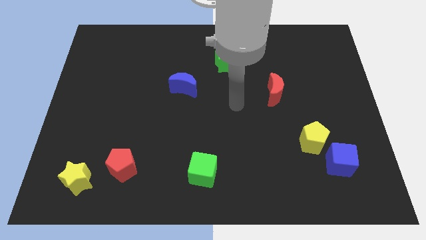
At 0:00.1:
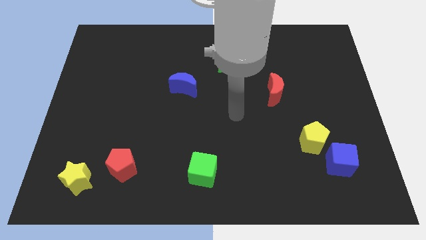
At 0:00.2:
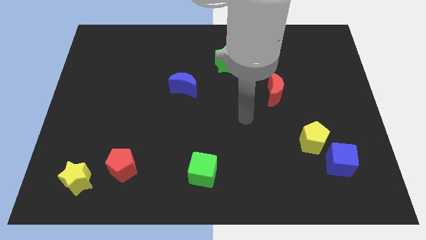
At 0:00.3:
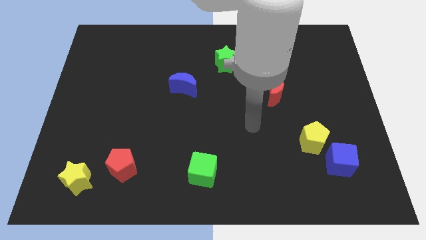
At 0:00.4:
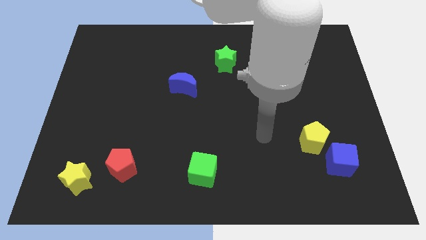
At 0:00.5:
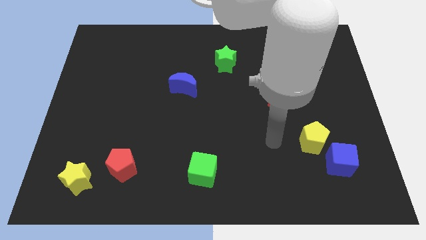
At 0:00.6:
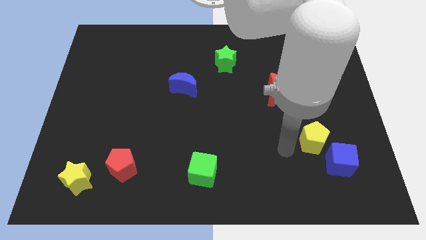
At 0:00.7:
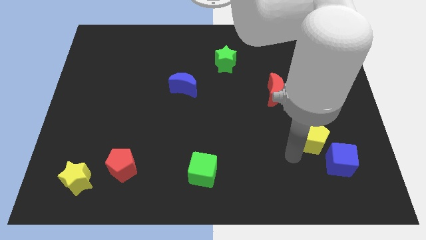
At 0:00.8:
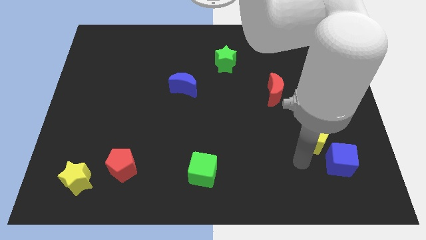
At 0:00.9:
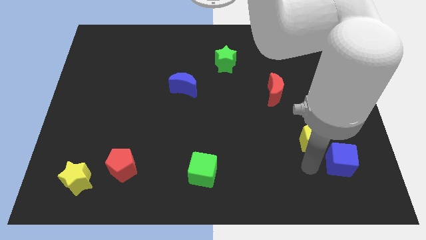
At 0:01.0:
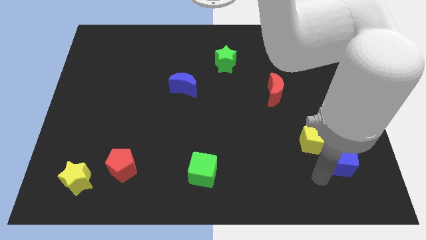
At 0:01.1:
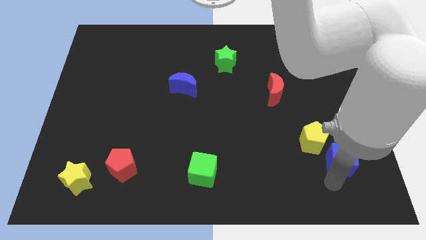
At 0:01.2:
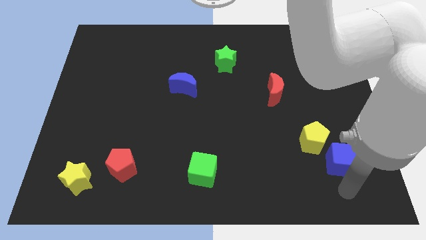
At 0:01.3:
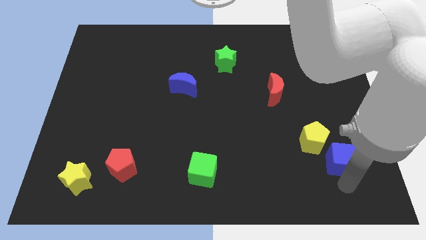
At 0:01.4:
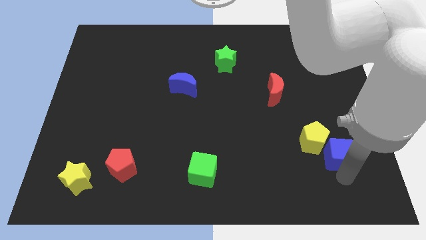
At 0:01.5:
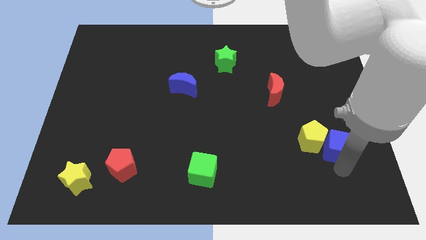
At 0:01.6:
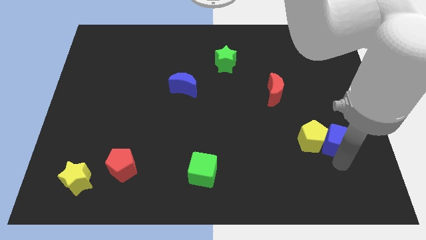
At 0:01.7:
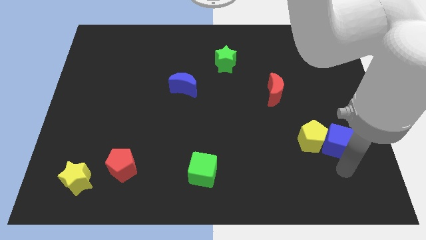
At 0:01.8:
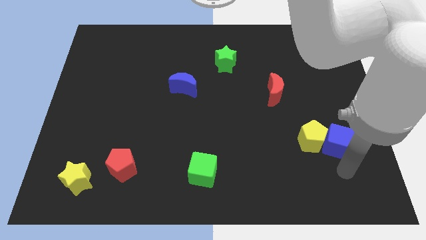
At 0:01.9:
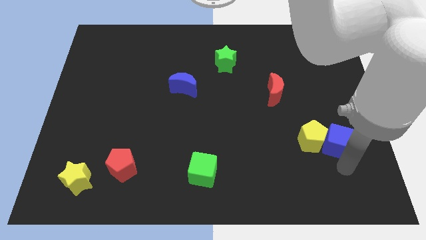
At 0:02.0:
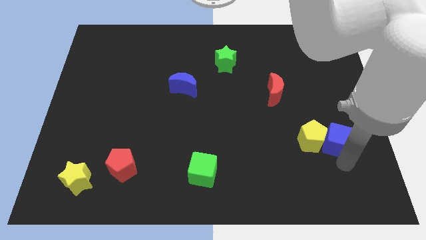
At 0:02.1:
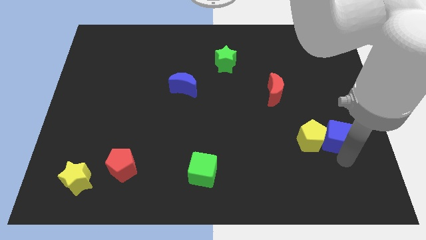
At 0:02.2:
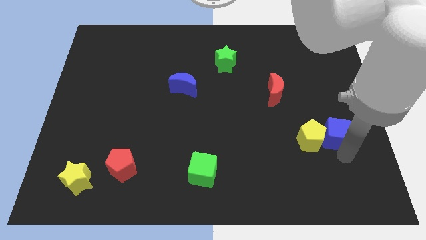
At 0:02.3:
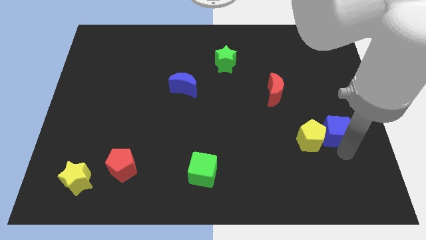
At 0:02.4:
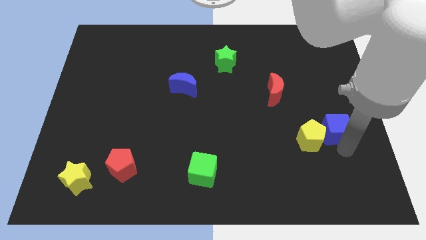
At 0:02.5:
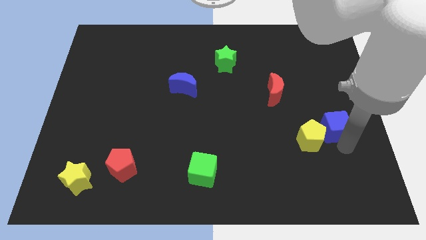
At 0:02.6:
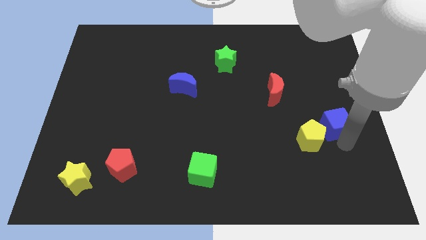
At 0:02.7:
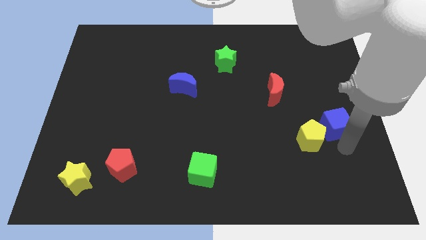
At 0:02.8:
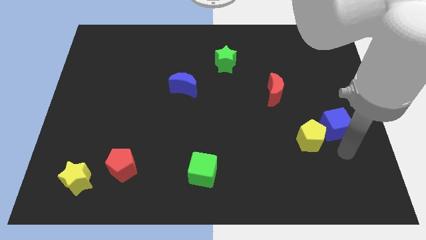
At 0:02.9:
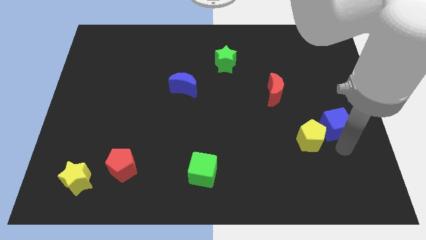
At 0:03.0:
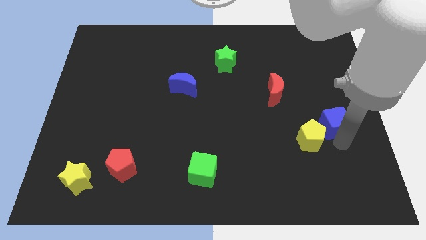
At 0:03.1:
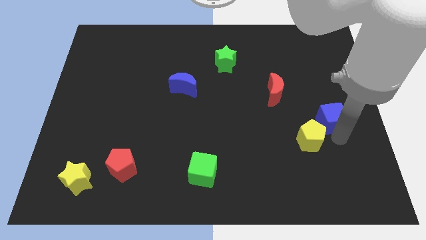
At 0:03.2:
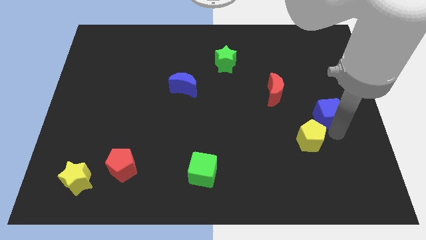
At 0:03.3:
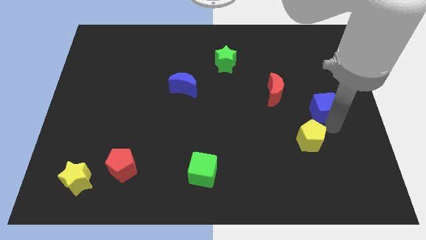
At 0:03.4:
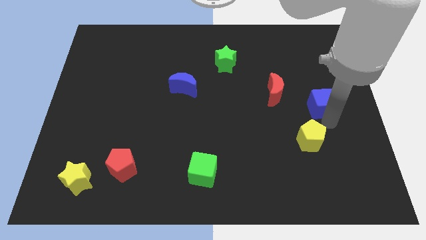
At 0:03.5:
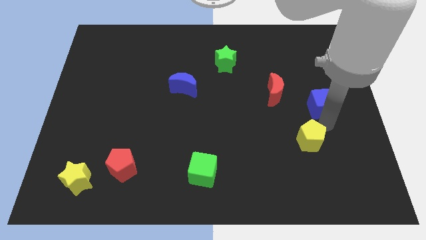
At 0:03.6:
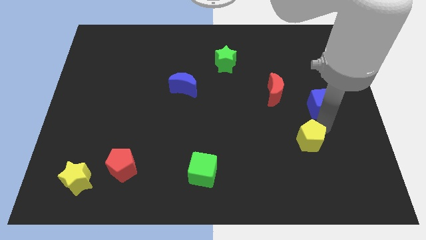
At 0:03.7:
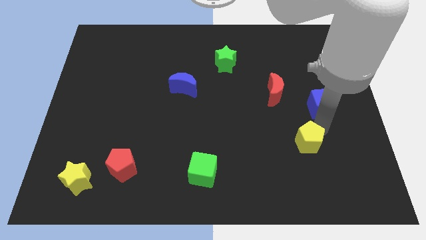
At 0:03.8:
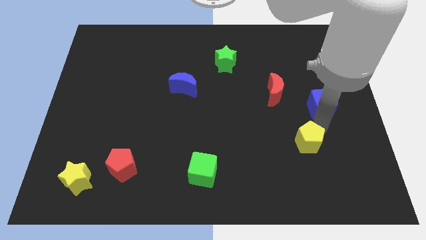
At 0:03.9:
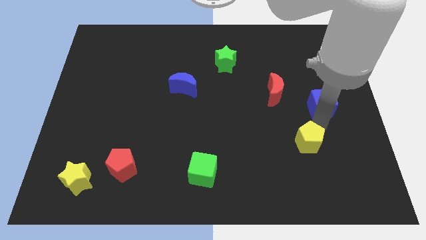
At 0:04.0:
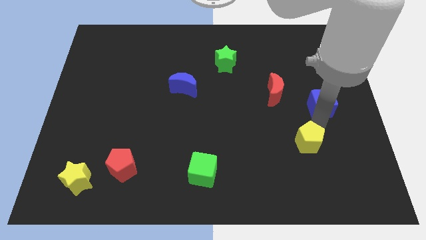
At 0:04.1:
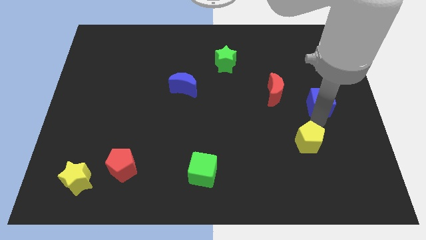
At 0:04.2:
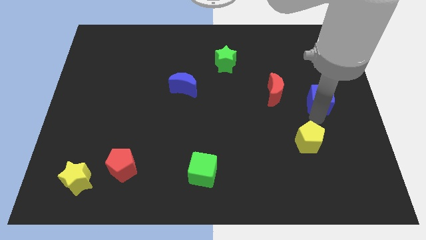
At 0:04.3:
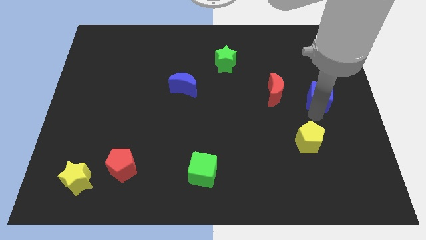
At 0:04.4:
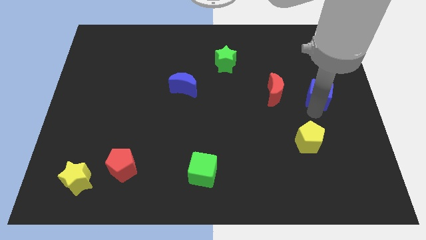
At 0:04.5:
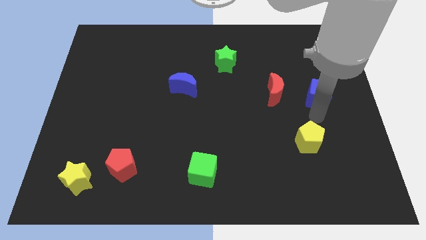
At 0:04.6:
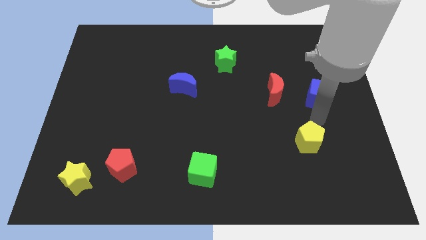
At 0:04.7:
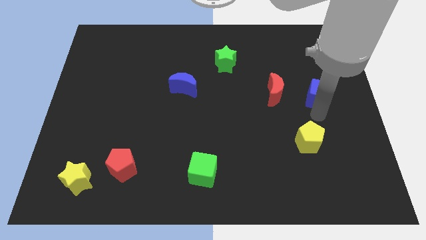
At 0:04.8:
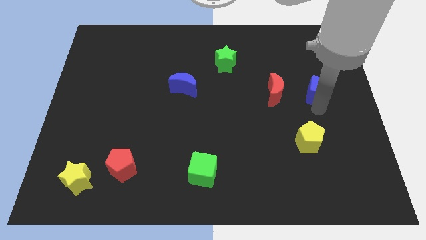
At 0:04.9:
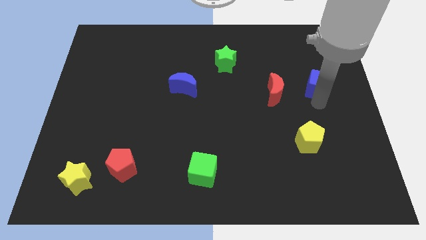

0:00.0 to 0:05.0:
move the blue cube upwards

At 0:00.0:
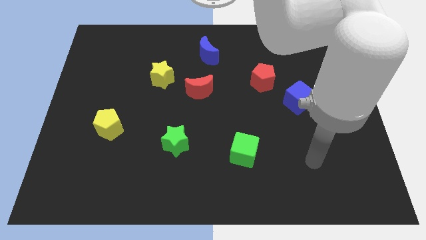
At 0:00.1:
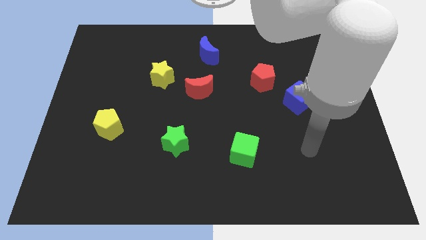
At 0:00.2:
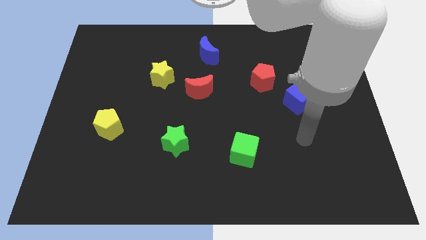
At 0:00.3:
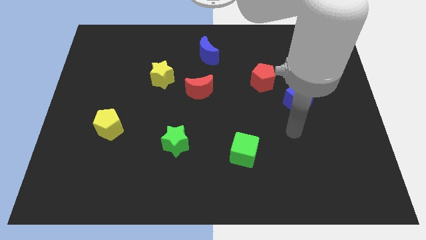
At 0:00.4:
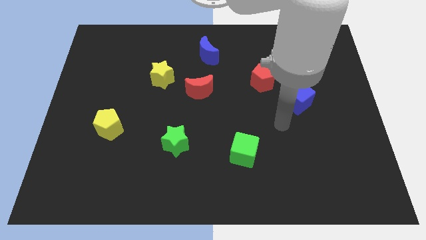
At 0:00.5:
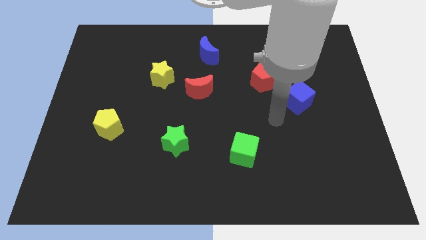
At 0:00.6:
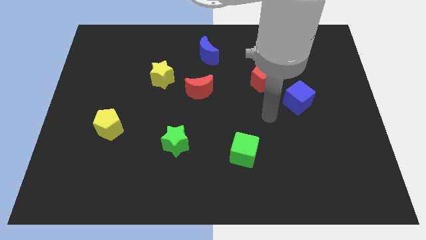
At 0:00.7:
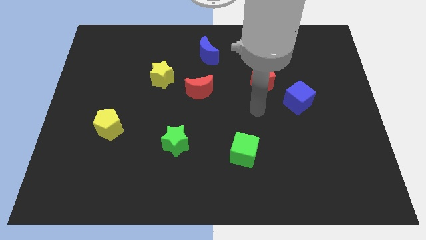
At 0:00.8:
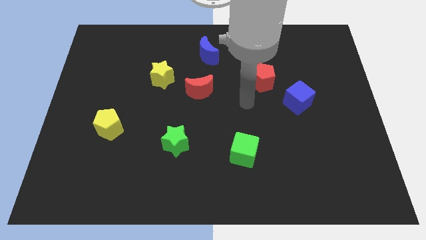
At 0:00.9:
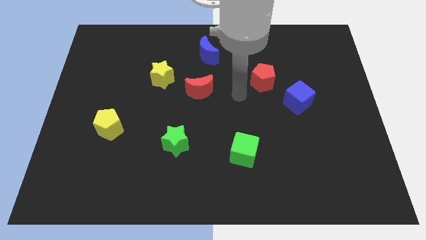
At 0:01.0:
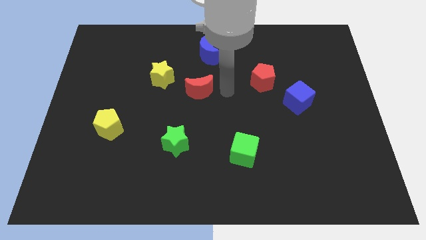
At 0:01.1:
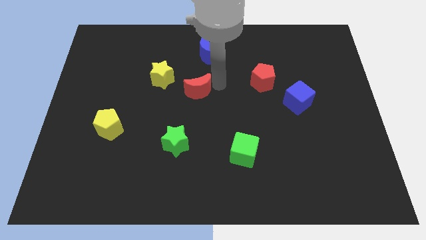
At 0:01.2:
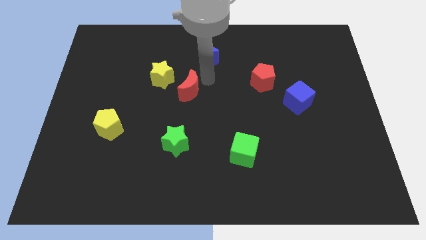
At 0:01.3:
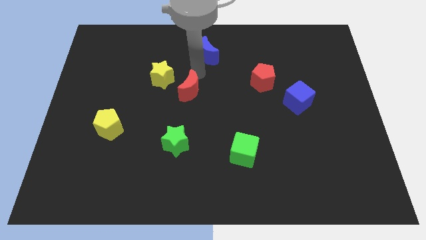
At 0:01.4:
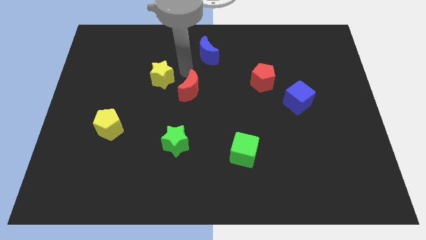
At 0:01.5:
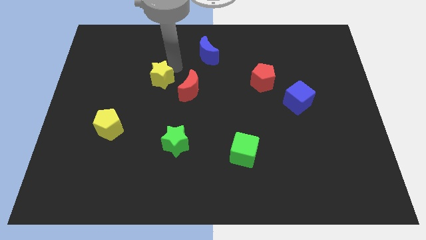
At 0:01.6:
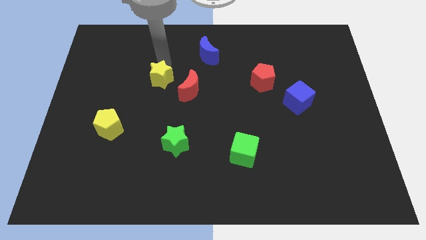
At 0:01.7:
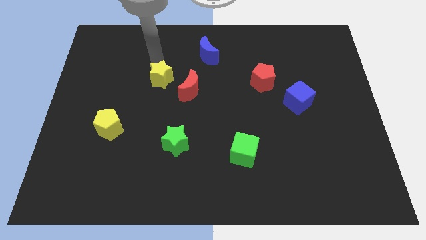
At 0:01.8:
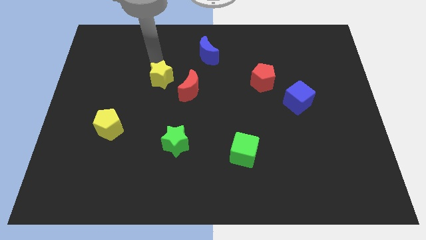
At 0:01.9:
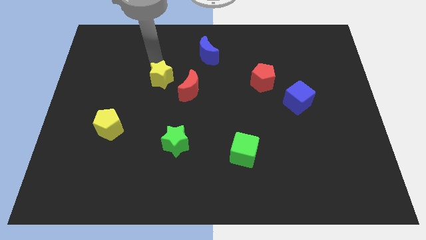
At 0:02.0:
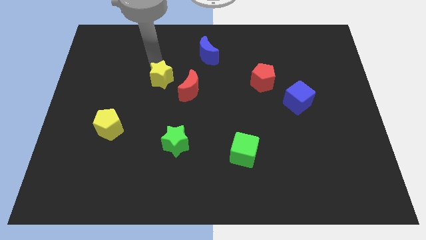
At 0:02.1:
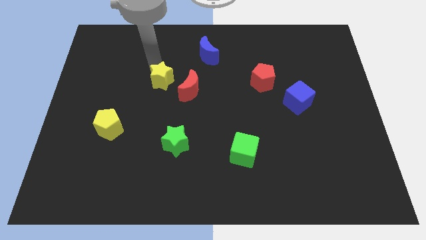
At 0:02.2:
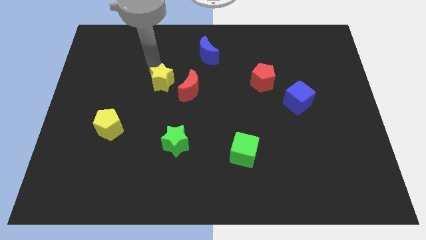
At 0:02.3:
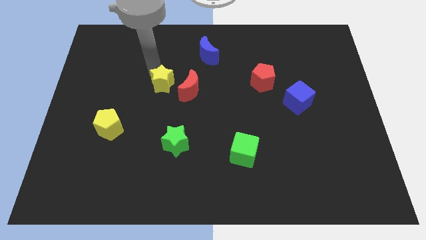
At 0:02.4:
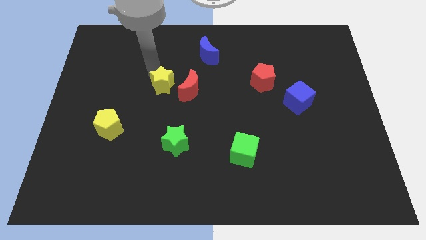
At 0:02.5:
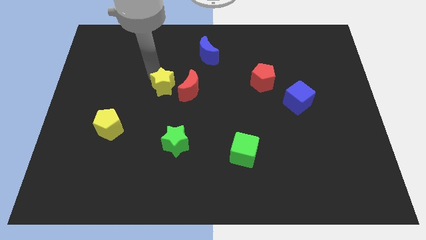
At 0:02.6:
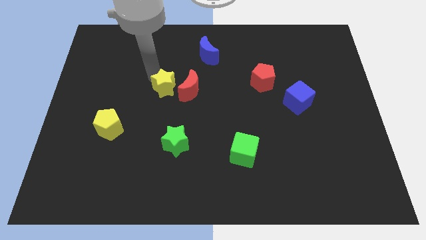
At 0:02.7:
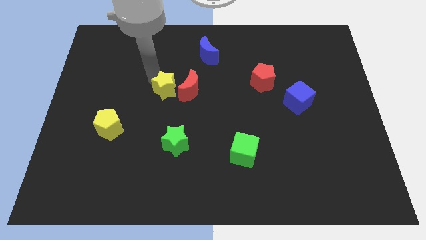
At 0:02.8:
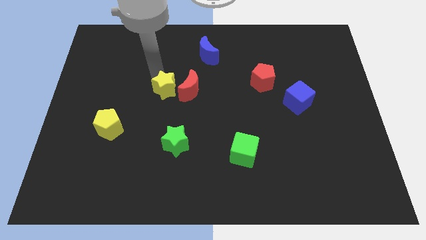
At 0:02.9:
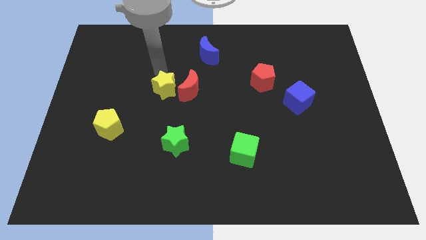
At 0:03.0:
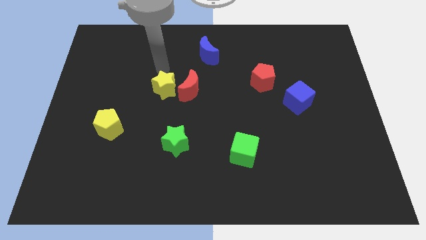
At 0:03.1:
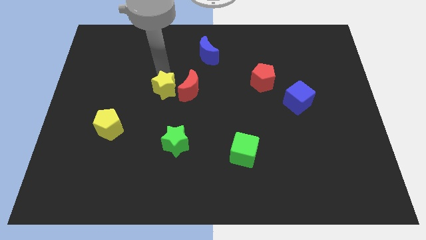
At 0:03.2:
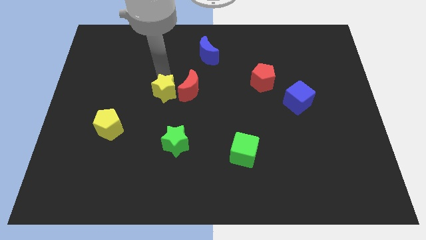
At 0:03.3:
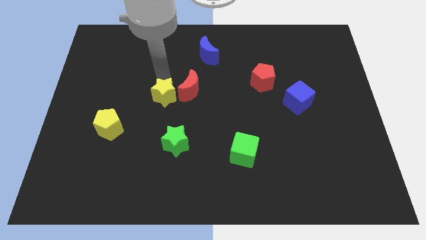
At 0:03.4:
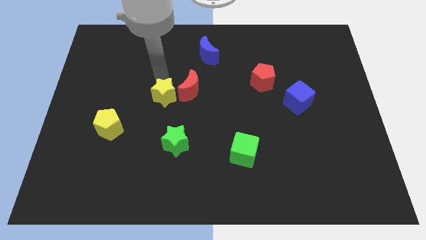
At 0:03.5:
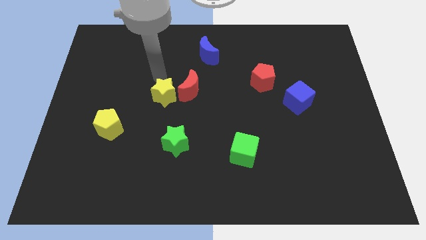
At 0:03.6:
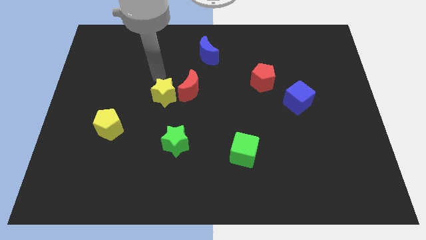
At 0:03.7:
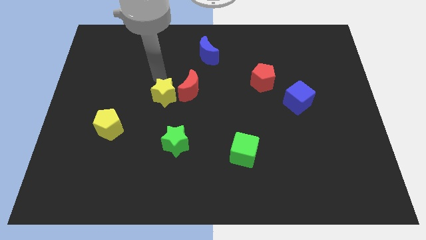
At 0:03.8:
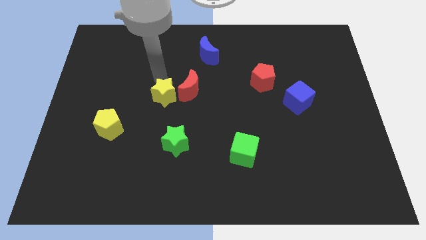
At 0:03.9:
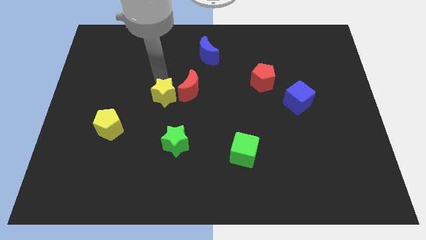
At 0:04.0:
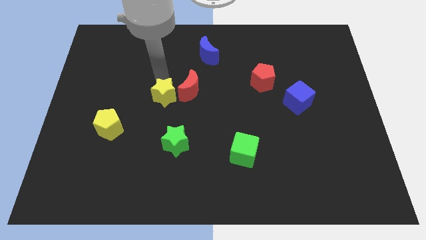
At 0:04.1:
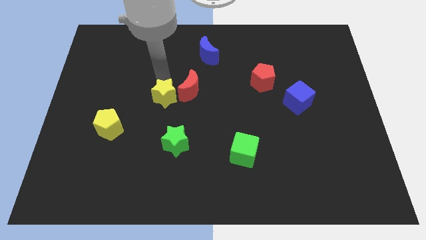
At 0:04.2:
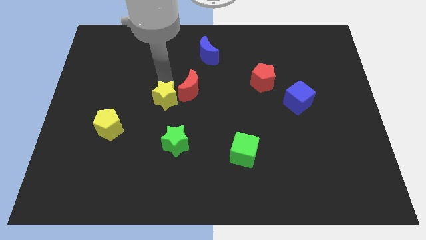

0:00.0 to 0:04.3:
push the yellow star down slightly
